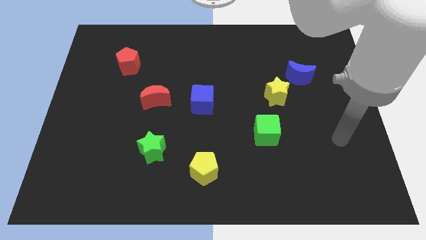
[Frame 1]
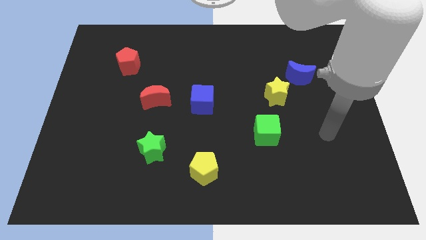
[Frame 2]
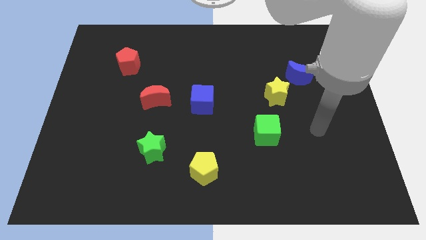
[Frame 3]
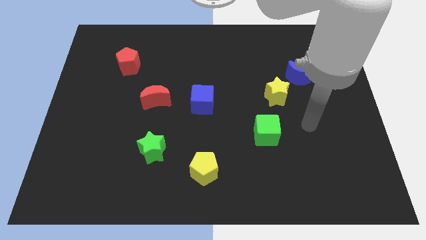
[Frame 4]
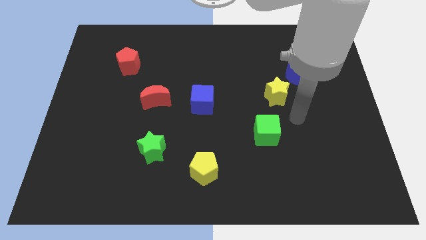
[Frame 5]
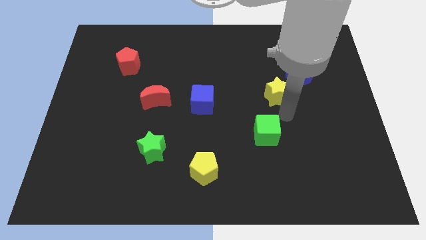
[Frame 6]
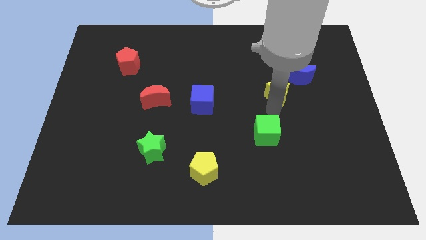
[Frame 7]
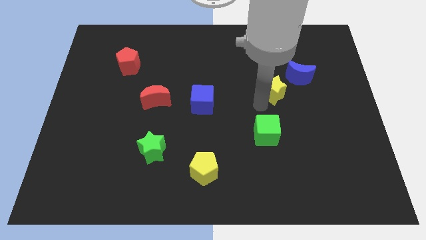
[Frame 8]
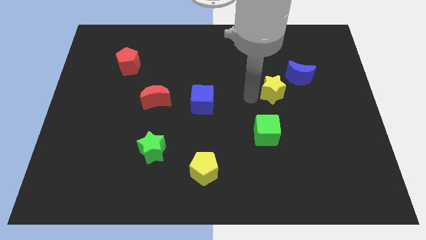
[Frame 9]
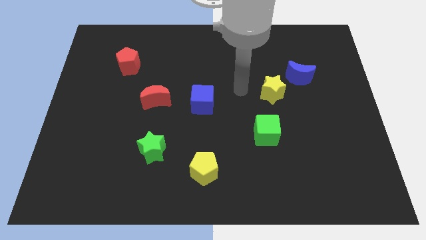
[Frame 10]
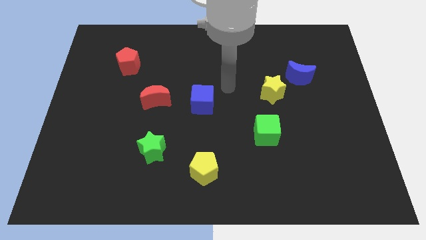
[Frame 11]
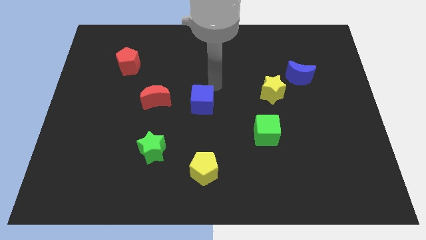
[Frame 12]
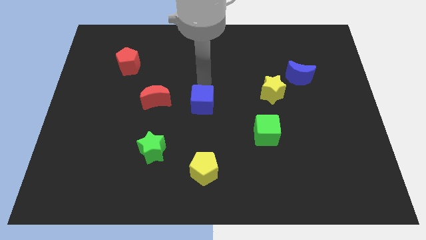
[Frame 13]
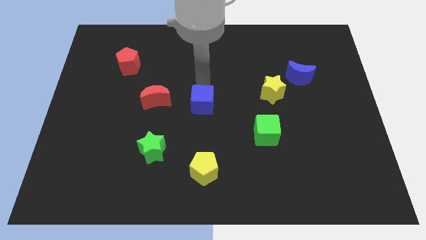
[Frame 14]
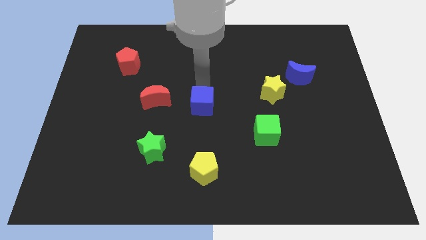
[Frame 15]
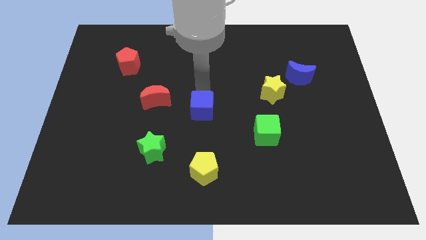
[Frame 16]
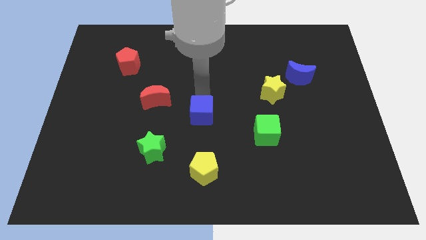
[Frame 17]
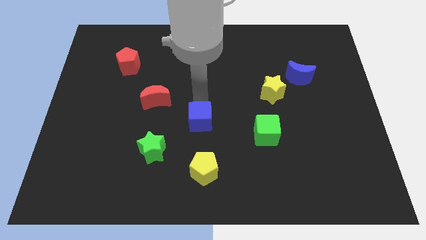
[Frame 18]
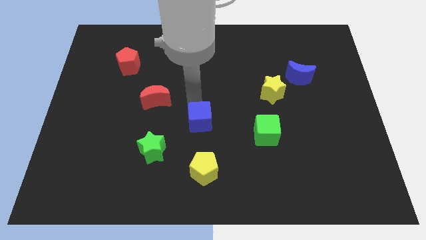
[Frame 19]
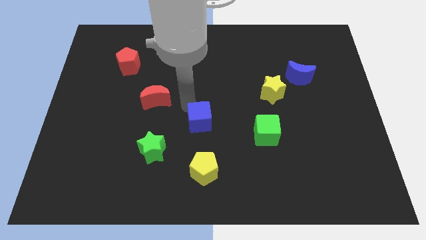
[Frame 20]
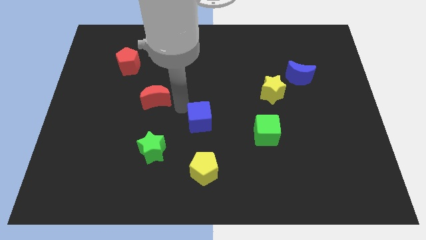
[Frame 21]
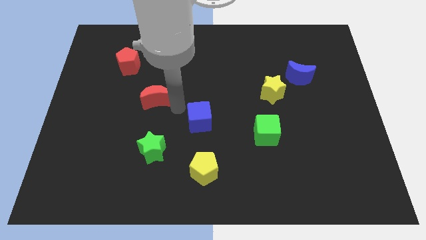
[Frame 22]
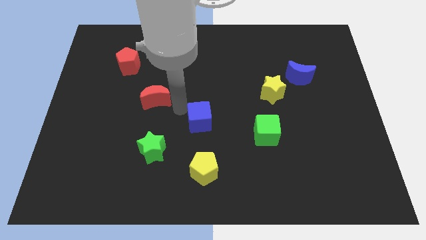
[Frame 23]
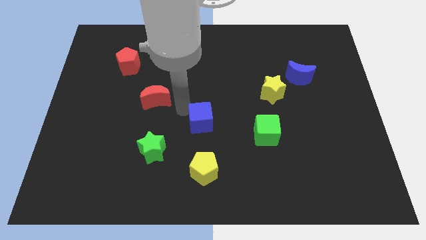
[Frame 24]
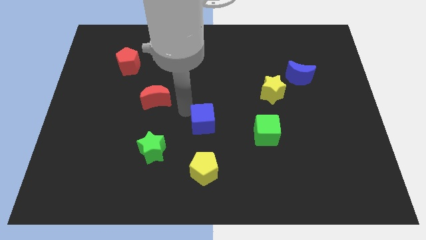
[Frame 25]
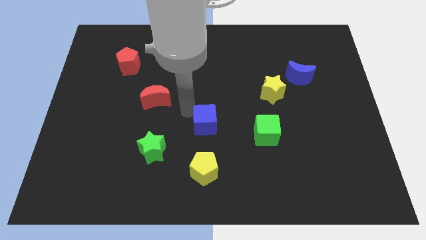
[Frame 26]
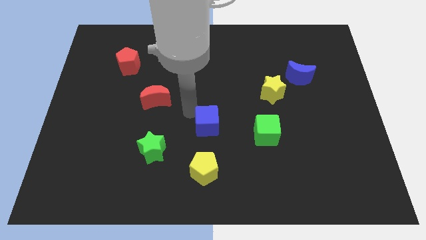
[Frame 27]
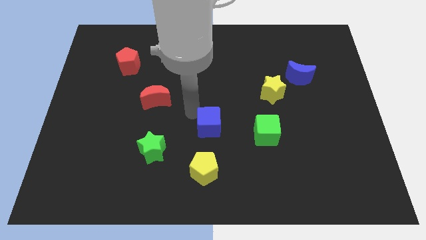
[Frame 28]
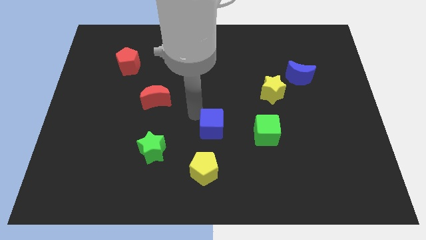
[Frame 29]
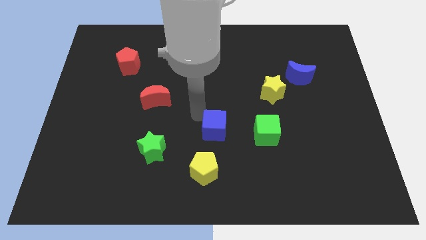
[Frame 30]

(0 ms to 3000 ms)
slide the blue cube a bit diagonally down and to the right

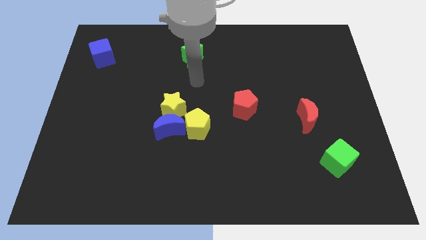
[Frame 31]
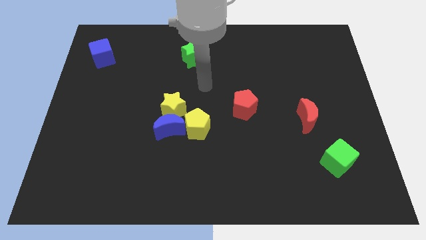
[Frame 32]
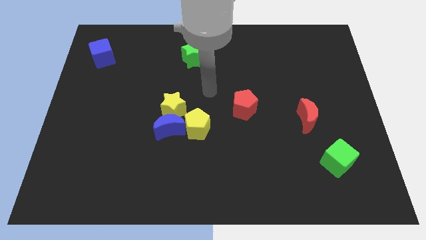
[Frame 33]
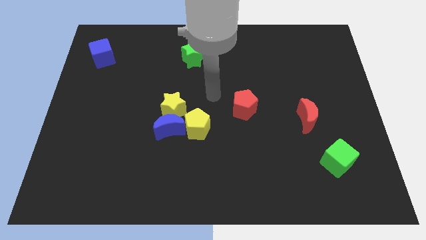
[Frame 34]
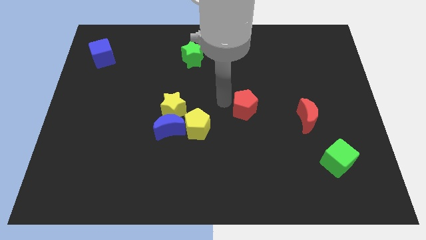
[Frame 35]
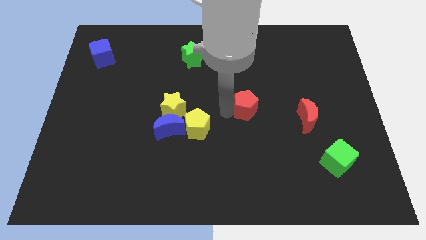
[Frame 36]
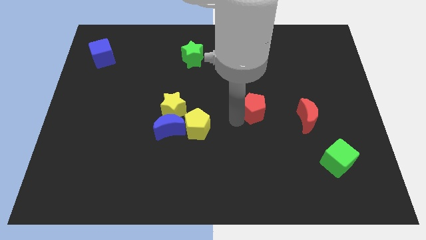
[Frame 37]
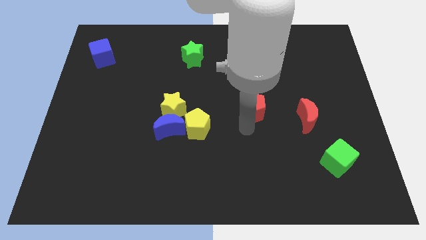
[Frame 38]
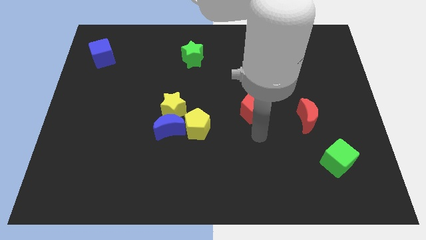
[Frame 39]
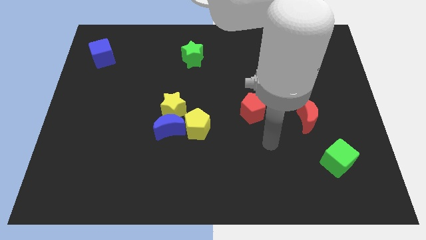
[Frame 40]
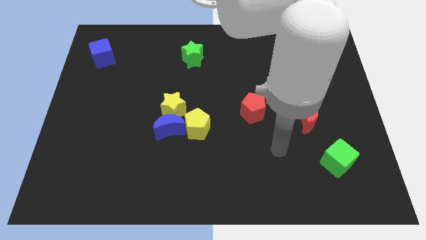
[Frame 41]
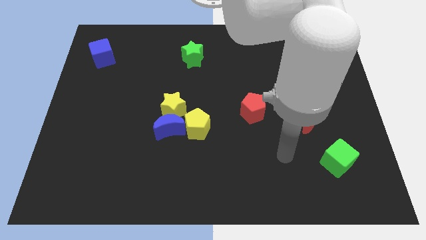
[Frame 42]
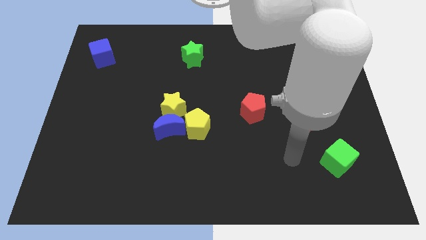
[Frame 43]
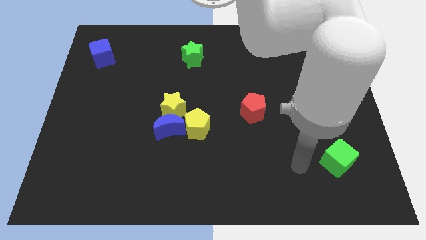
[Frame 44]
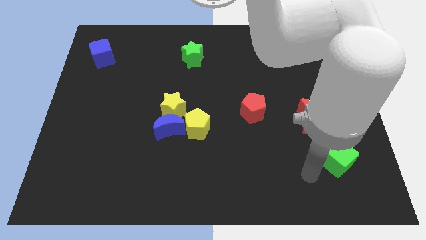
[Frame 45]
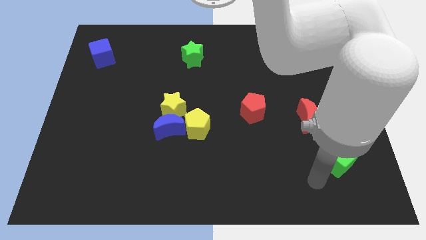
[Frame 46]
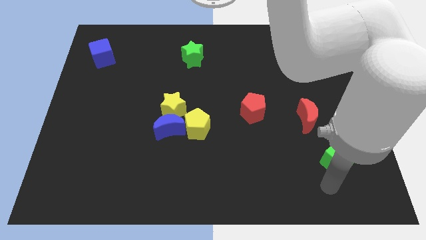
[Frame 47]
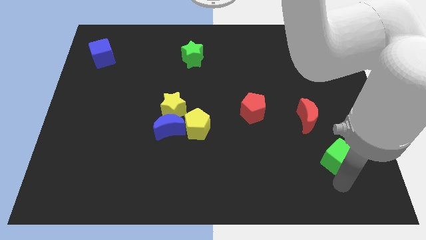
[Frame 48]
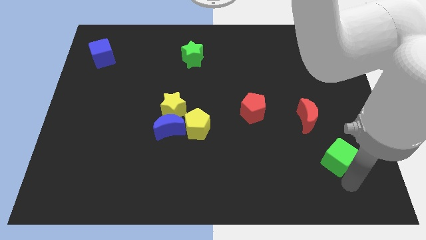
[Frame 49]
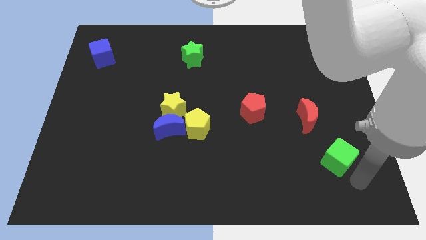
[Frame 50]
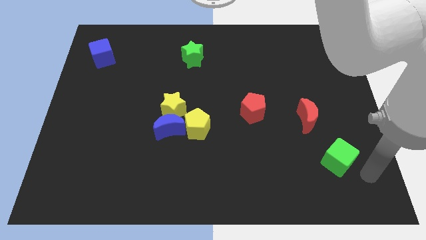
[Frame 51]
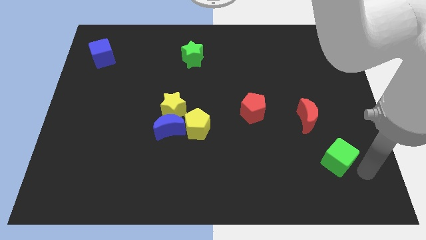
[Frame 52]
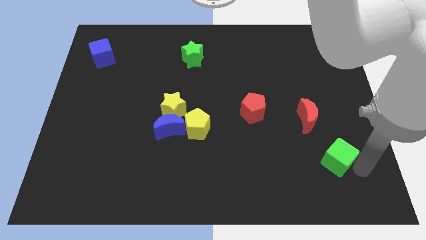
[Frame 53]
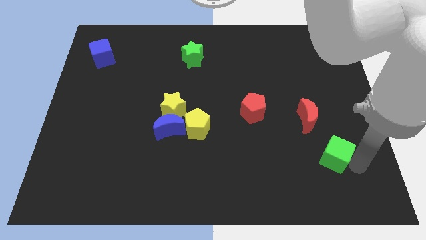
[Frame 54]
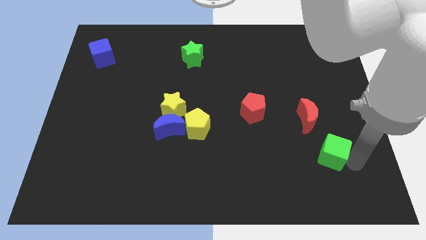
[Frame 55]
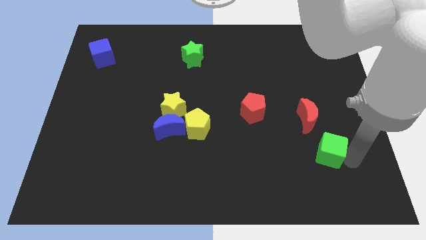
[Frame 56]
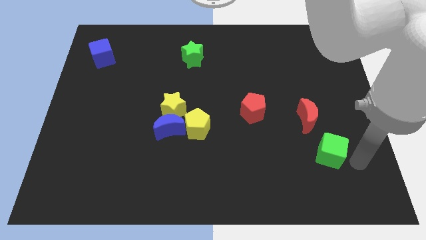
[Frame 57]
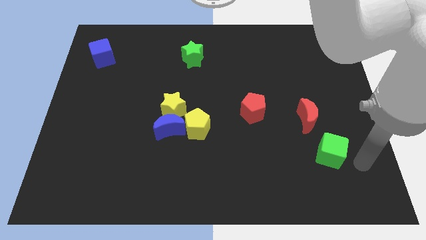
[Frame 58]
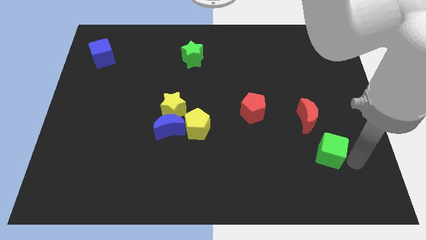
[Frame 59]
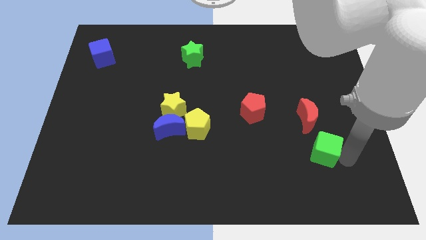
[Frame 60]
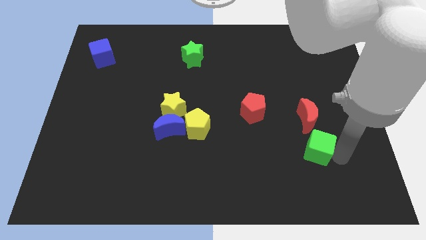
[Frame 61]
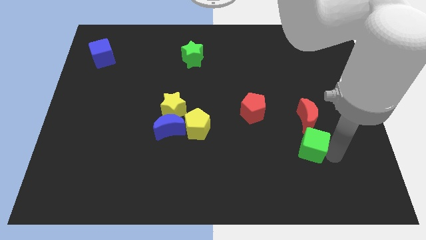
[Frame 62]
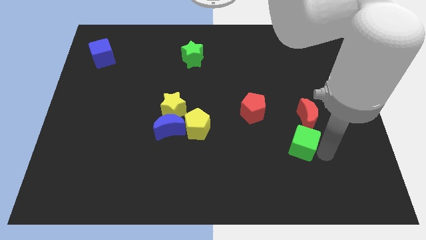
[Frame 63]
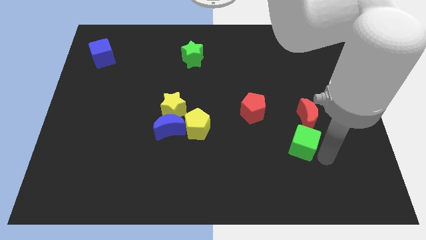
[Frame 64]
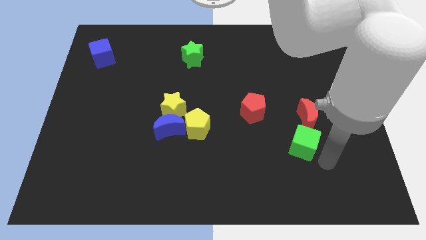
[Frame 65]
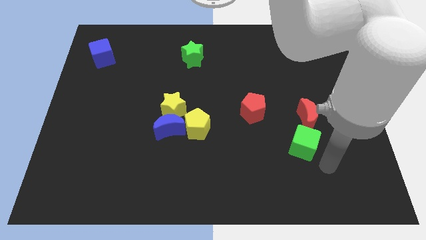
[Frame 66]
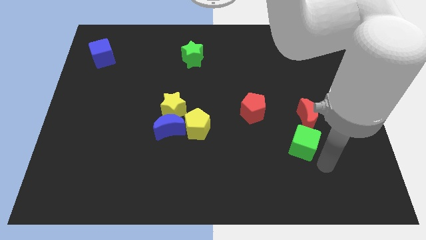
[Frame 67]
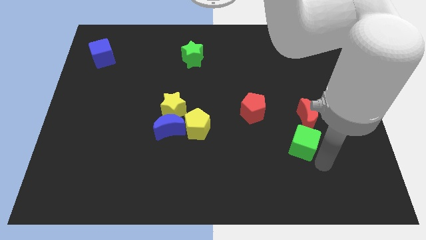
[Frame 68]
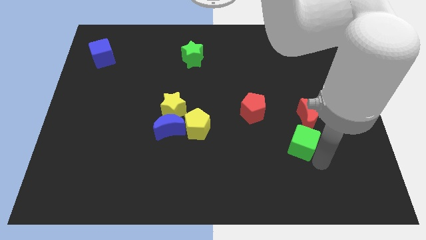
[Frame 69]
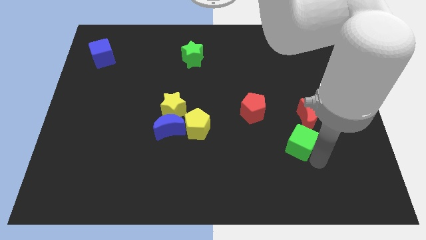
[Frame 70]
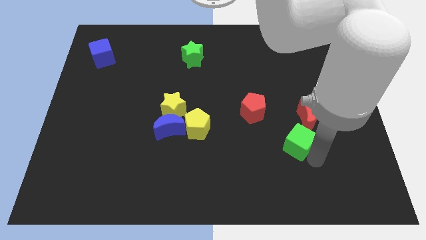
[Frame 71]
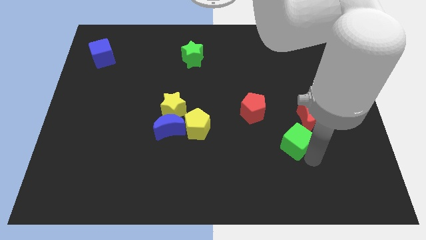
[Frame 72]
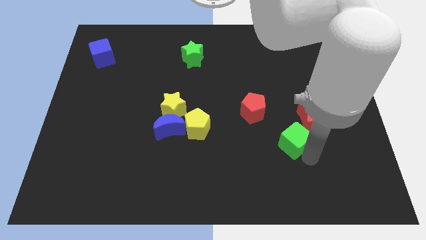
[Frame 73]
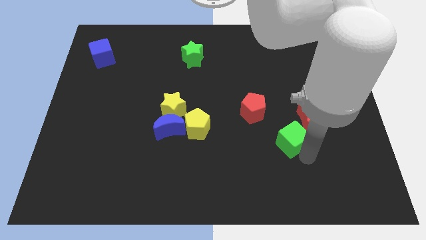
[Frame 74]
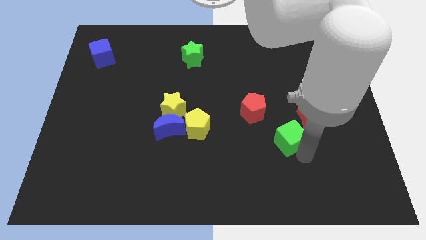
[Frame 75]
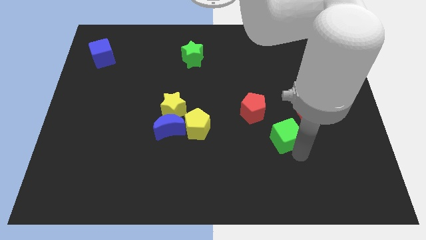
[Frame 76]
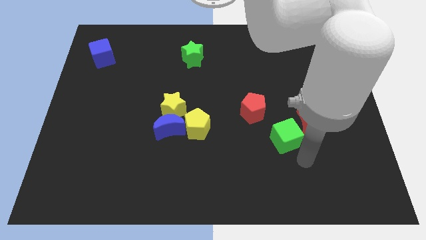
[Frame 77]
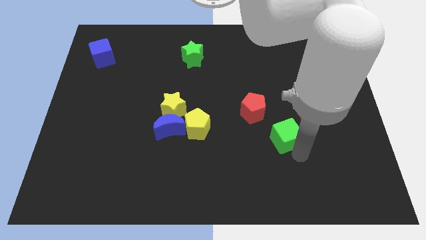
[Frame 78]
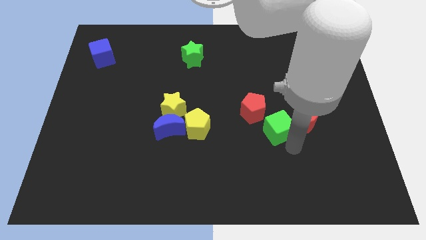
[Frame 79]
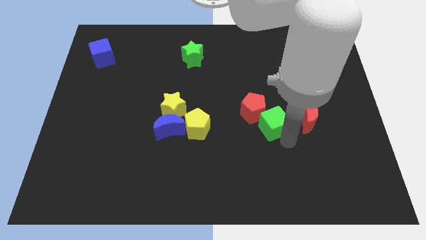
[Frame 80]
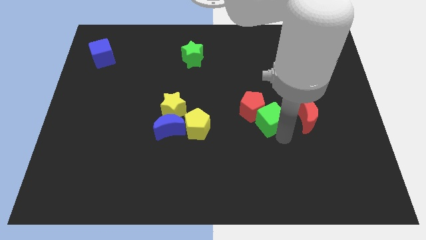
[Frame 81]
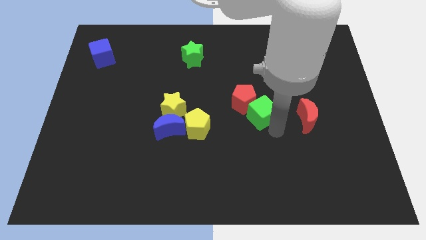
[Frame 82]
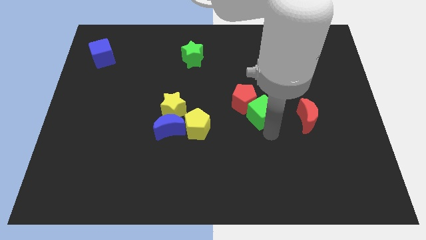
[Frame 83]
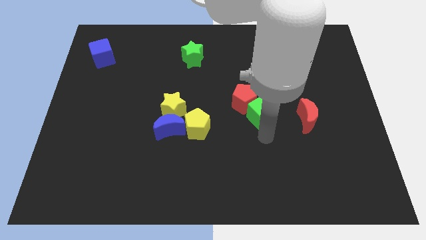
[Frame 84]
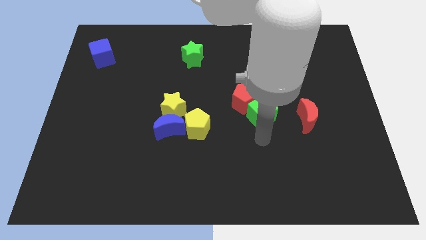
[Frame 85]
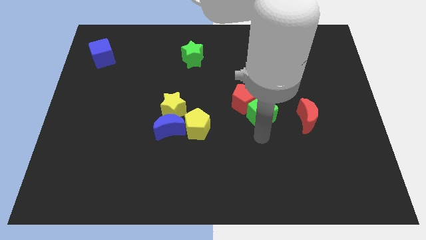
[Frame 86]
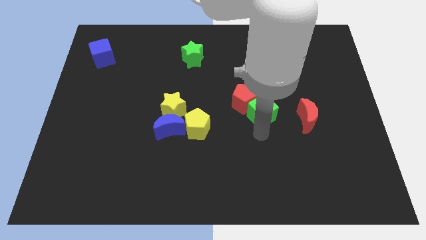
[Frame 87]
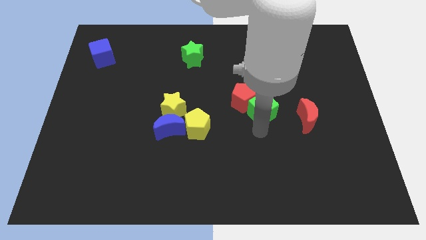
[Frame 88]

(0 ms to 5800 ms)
move the green cube upwards and then left
